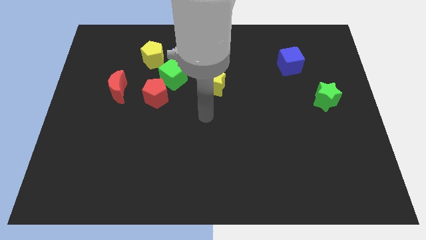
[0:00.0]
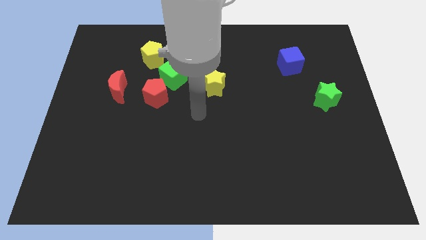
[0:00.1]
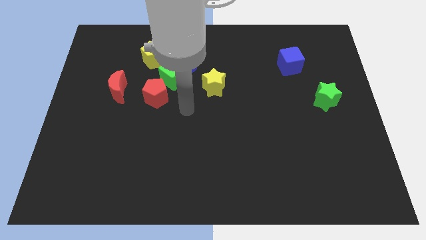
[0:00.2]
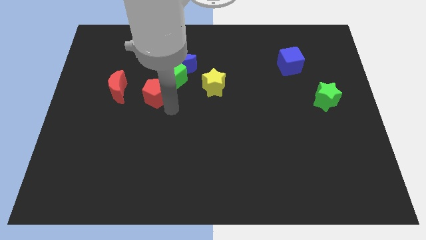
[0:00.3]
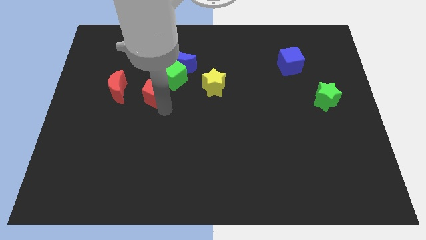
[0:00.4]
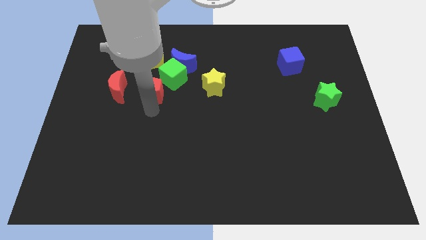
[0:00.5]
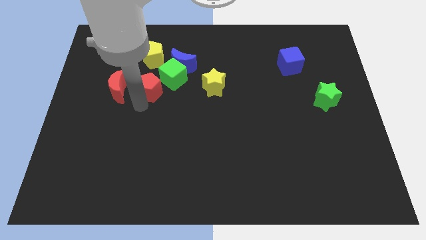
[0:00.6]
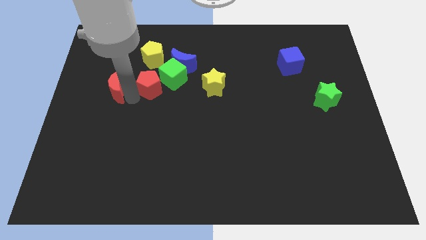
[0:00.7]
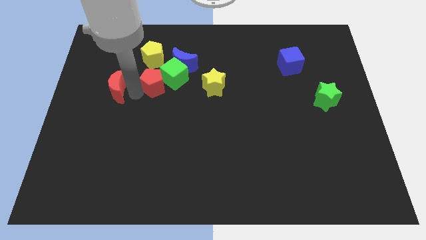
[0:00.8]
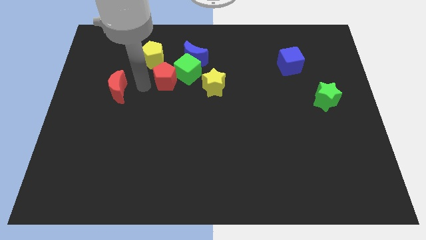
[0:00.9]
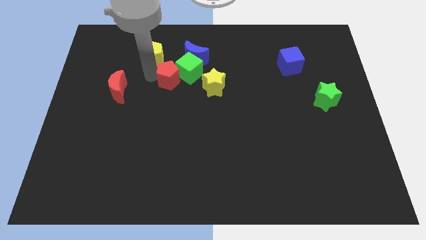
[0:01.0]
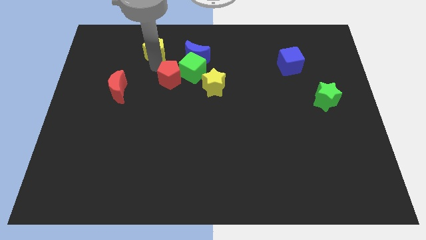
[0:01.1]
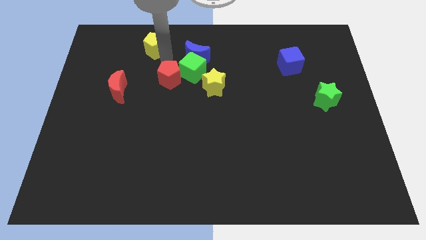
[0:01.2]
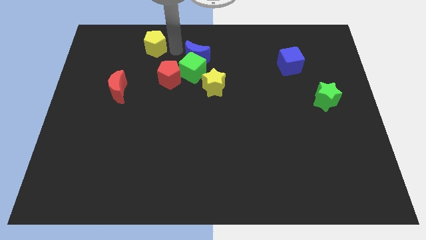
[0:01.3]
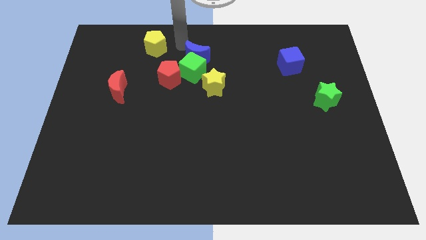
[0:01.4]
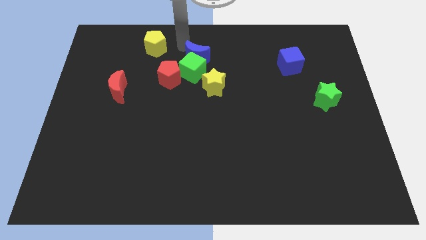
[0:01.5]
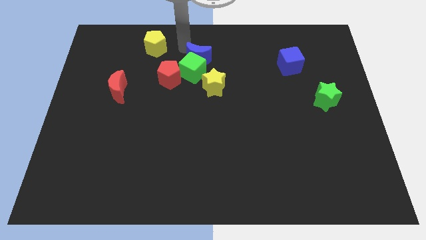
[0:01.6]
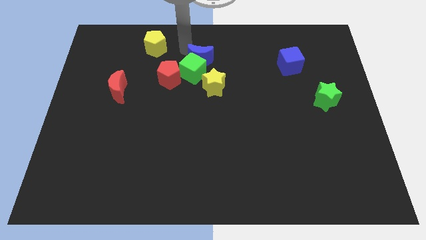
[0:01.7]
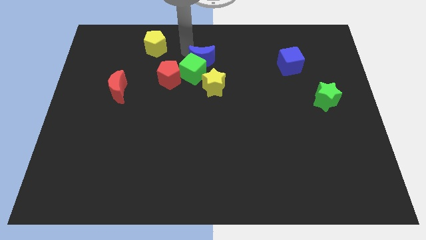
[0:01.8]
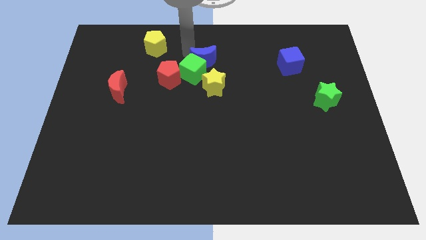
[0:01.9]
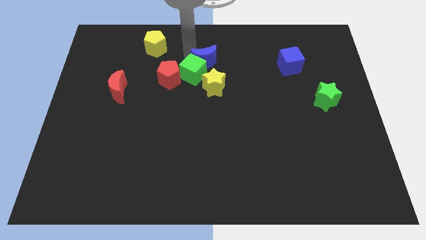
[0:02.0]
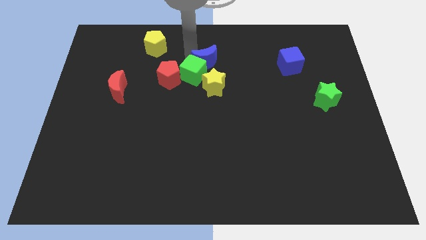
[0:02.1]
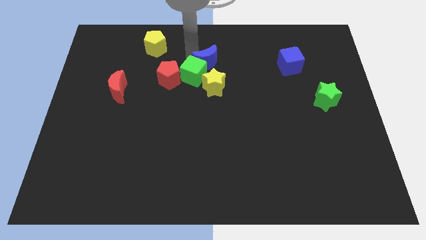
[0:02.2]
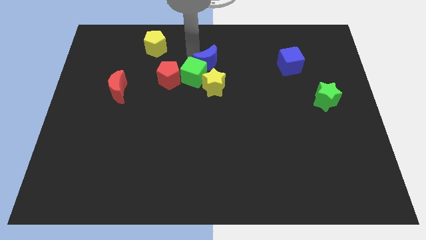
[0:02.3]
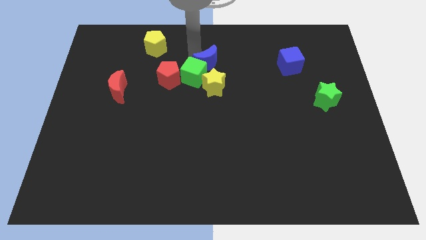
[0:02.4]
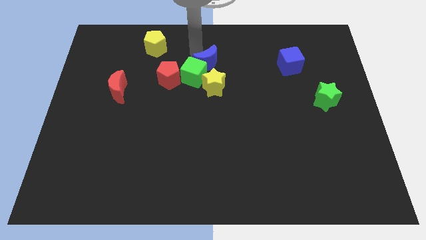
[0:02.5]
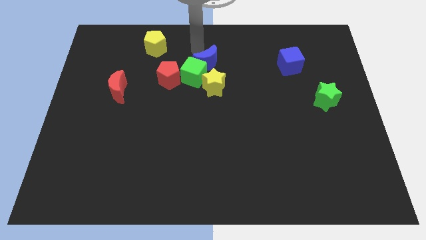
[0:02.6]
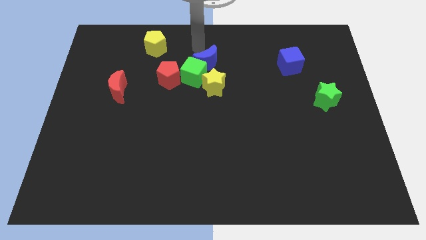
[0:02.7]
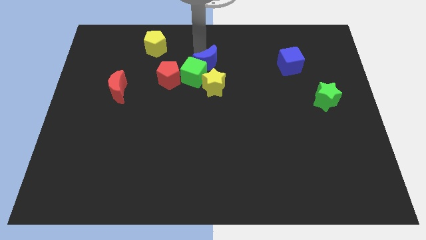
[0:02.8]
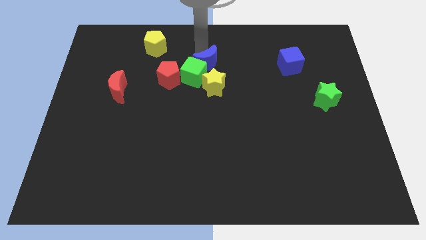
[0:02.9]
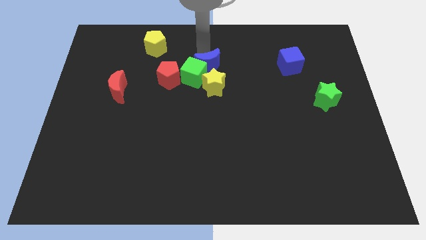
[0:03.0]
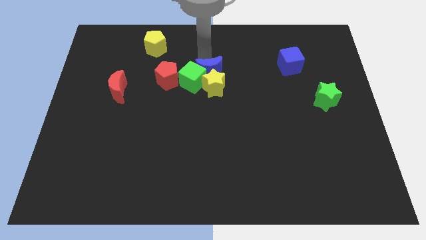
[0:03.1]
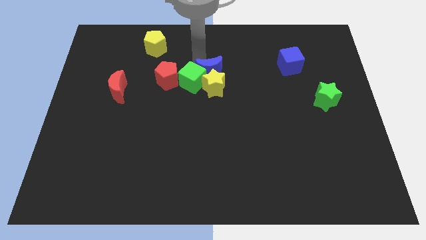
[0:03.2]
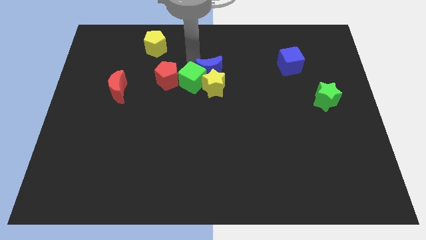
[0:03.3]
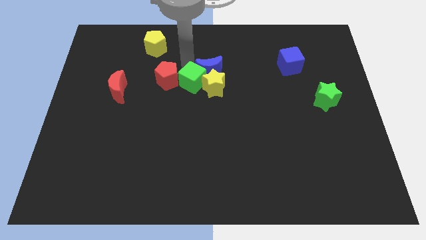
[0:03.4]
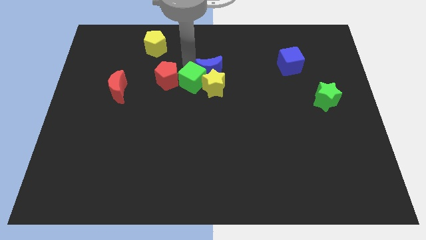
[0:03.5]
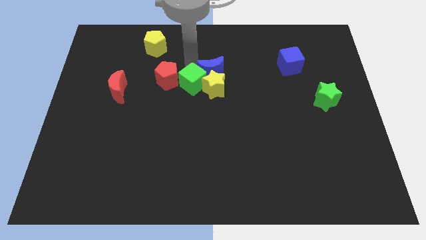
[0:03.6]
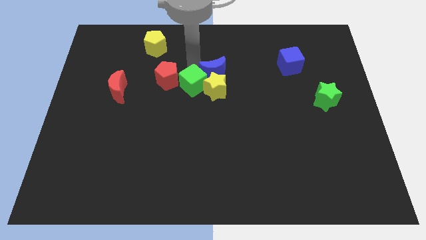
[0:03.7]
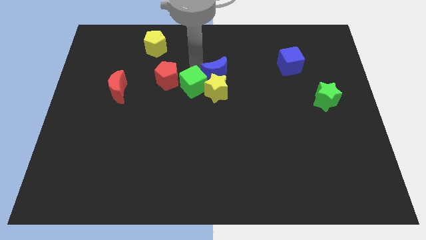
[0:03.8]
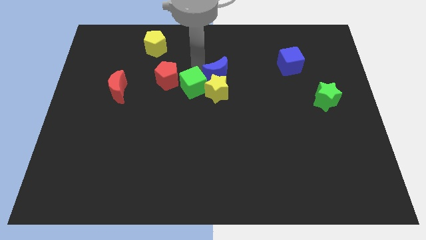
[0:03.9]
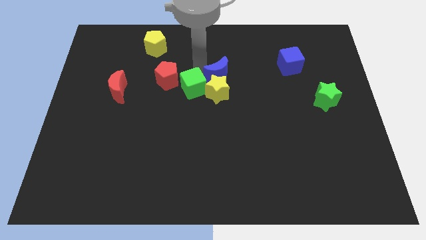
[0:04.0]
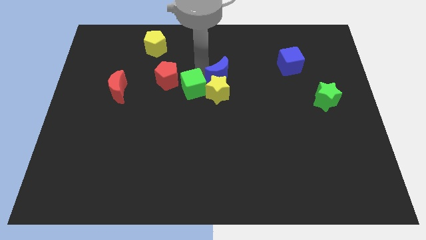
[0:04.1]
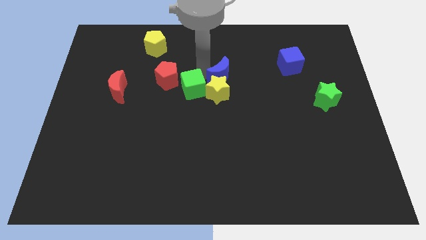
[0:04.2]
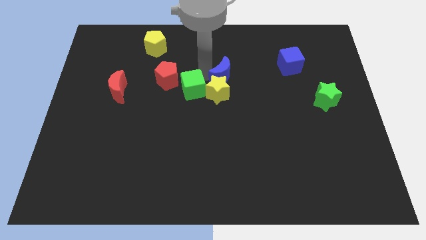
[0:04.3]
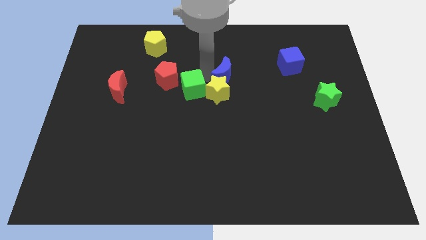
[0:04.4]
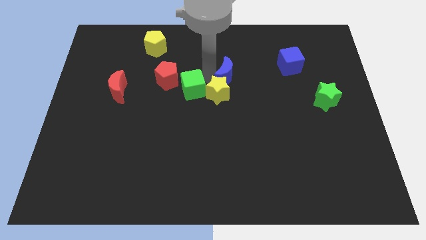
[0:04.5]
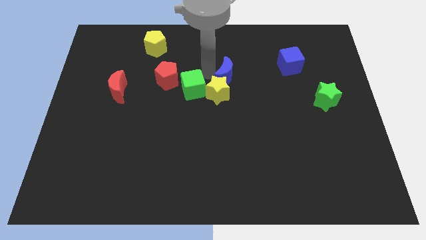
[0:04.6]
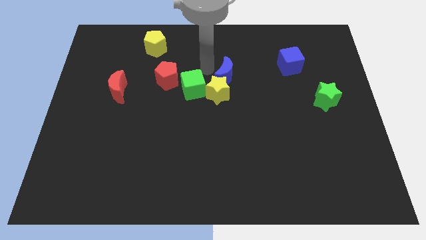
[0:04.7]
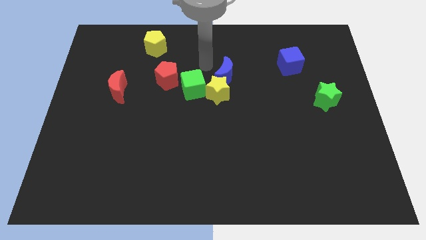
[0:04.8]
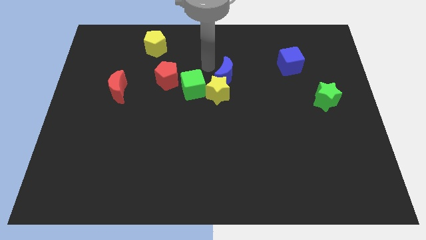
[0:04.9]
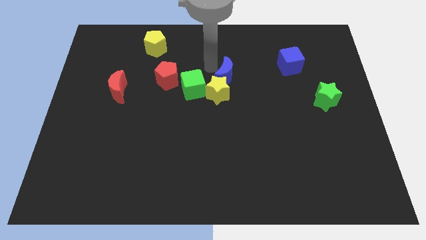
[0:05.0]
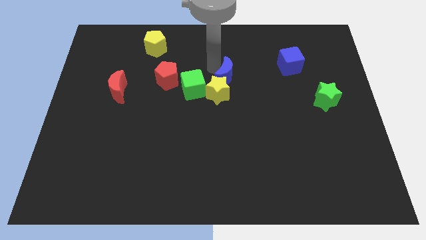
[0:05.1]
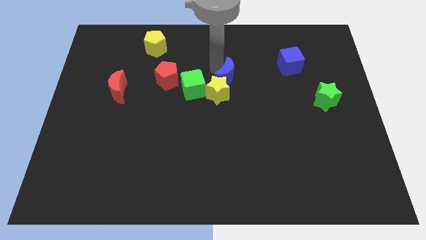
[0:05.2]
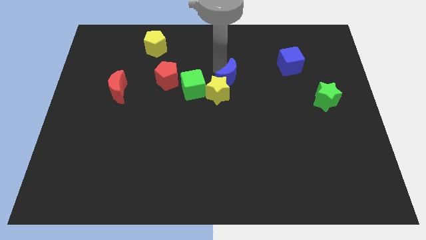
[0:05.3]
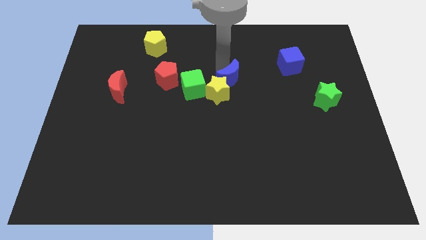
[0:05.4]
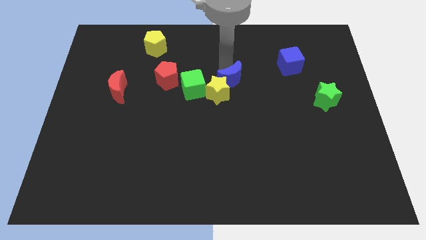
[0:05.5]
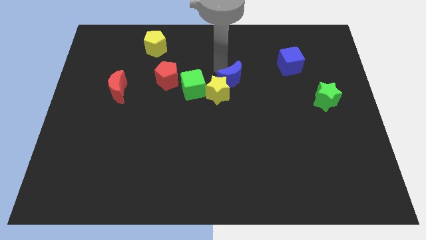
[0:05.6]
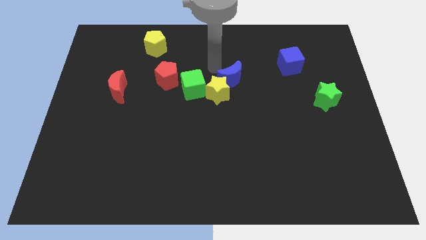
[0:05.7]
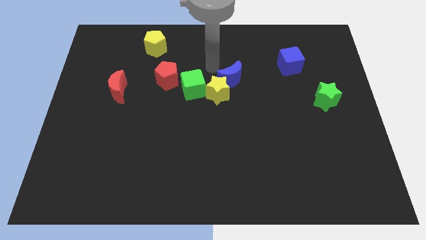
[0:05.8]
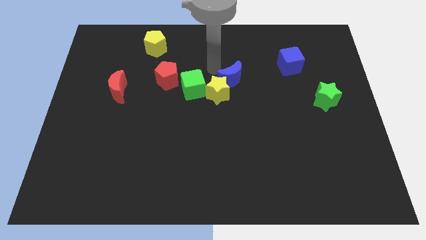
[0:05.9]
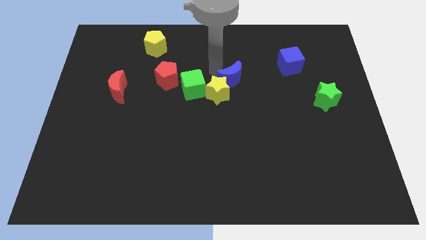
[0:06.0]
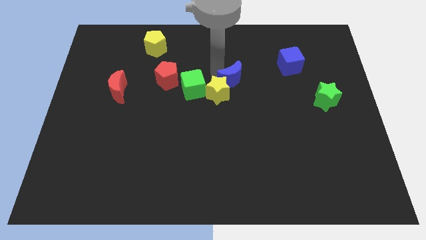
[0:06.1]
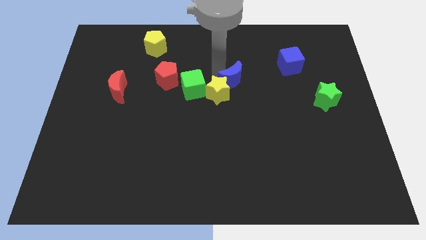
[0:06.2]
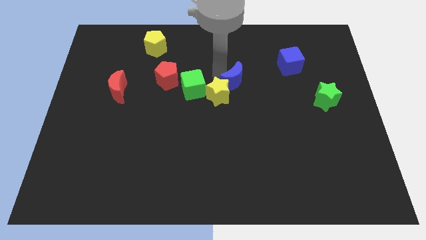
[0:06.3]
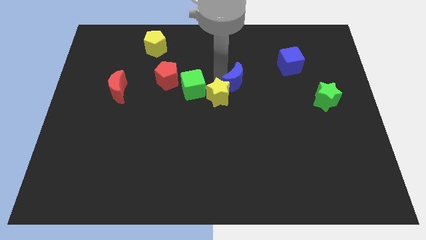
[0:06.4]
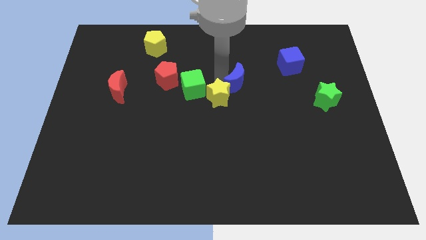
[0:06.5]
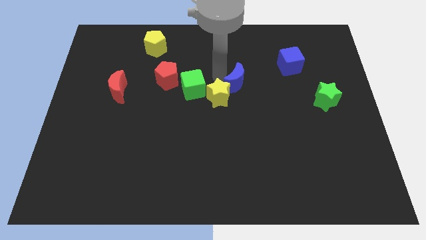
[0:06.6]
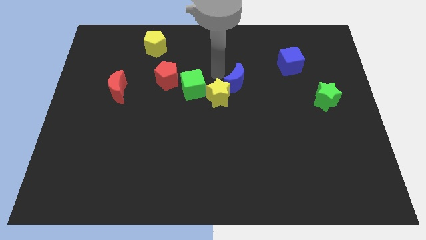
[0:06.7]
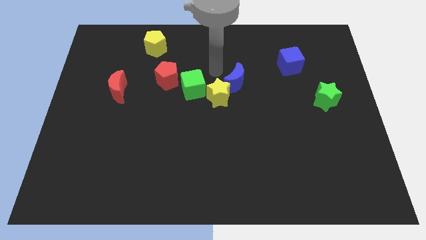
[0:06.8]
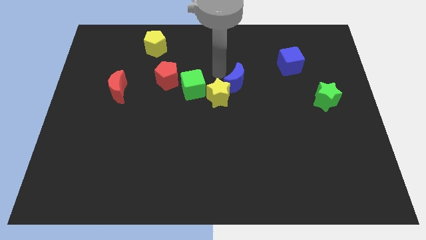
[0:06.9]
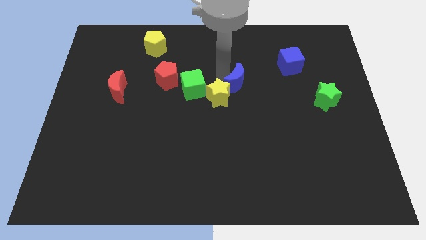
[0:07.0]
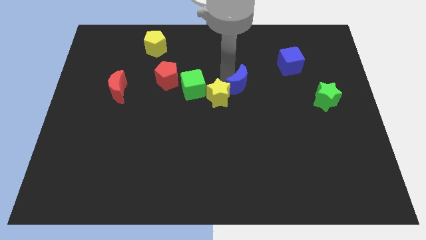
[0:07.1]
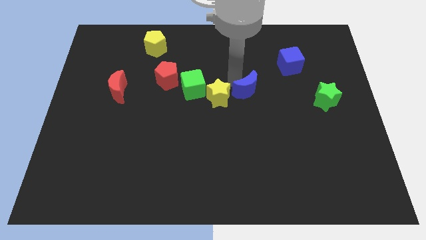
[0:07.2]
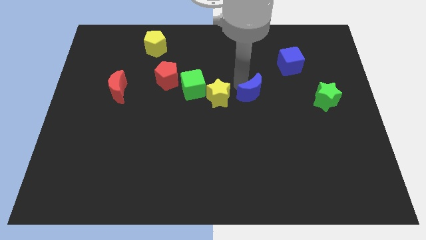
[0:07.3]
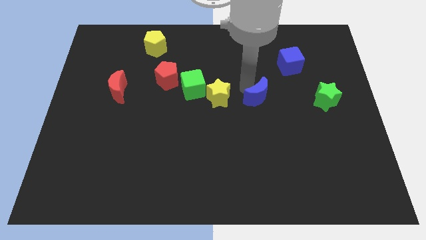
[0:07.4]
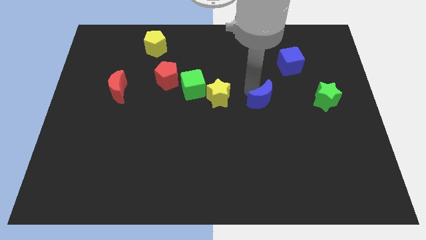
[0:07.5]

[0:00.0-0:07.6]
slide the blue moon down and right diagonally

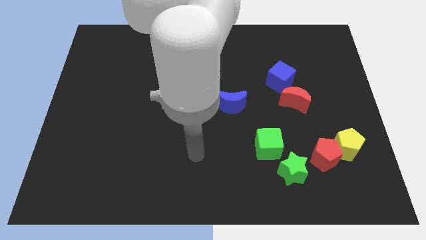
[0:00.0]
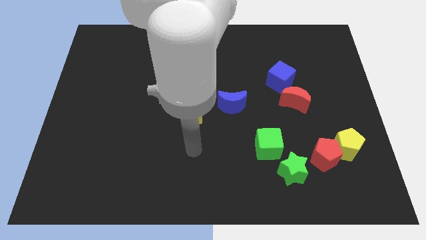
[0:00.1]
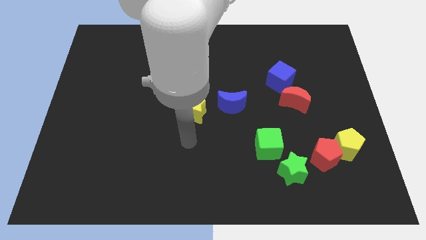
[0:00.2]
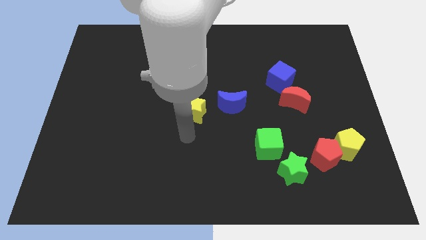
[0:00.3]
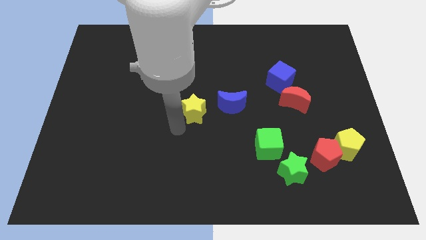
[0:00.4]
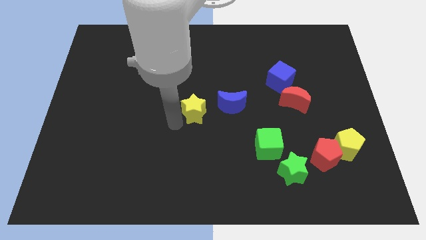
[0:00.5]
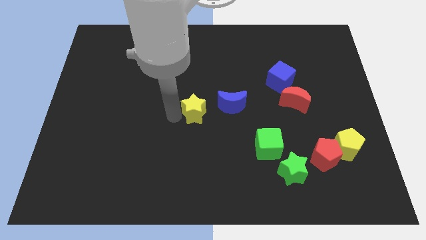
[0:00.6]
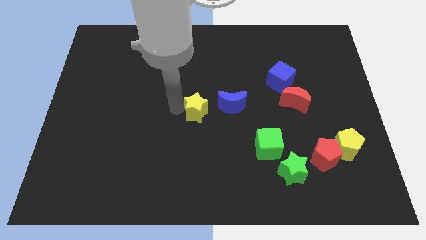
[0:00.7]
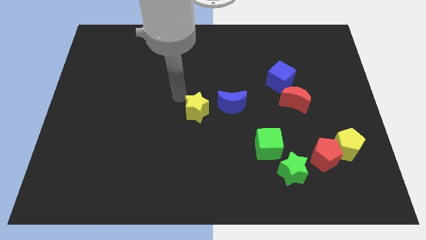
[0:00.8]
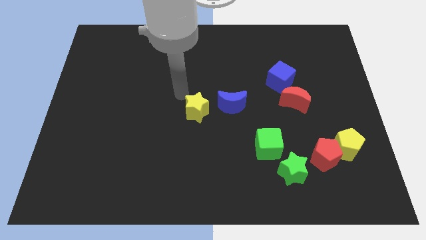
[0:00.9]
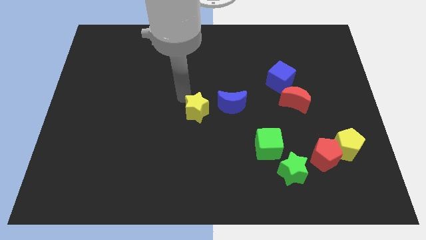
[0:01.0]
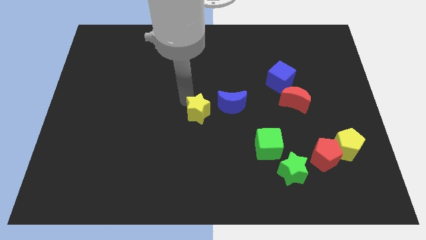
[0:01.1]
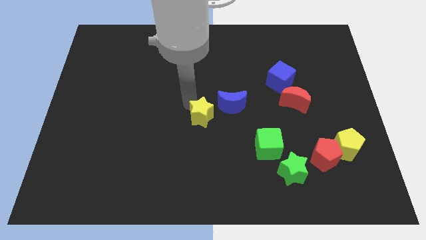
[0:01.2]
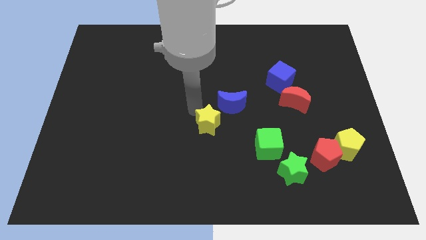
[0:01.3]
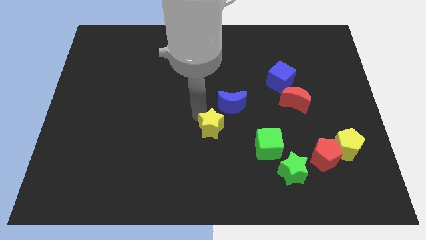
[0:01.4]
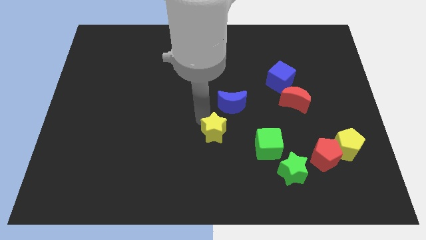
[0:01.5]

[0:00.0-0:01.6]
slide the yellow star slightly diagonally downwards and right
